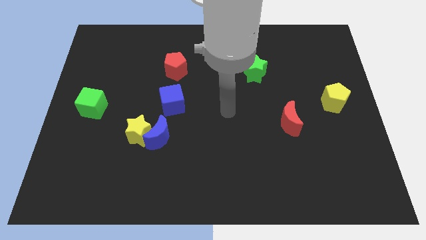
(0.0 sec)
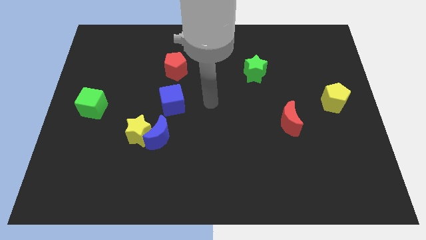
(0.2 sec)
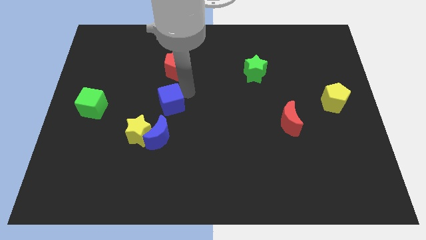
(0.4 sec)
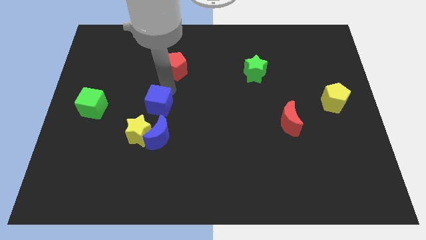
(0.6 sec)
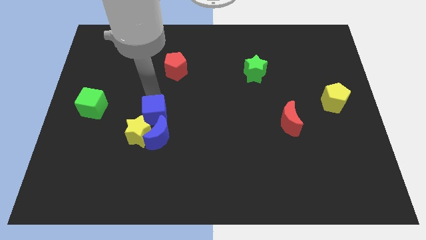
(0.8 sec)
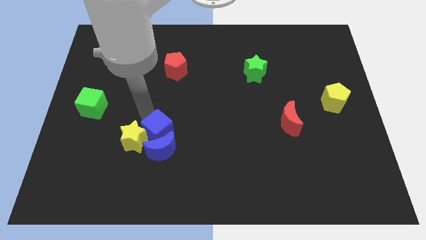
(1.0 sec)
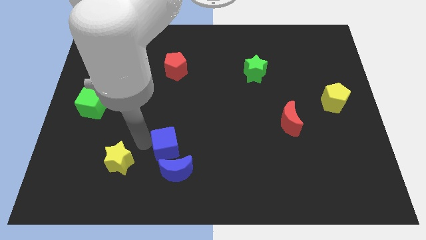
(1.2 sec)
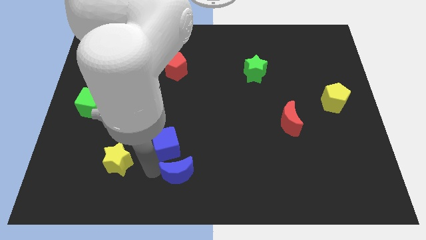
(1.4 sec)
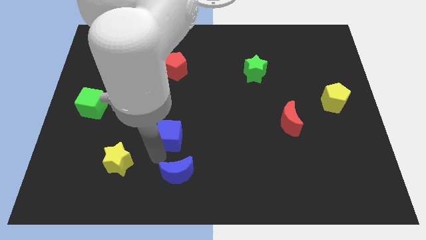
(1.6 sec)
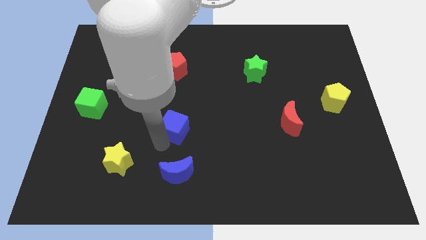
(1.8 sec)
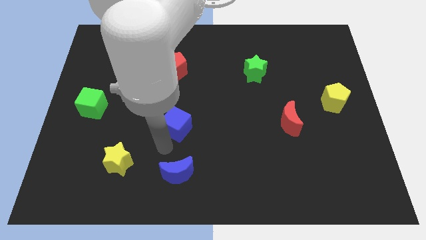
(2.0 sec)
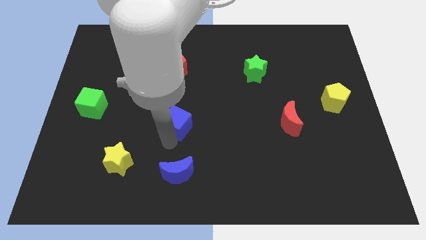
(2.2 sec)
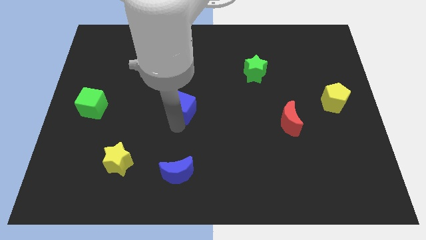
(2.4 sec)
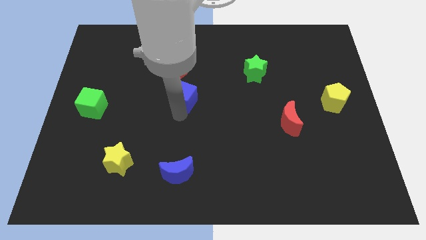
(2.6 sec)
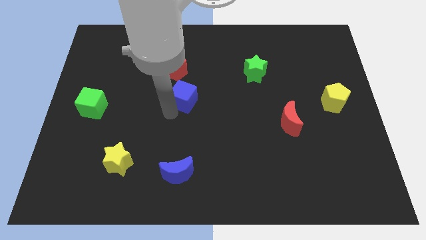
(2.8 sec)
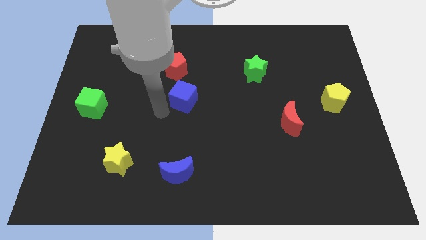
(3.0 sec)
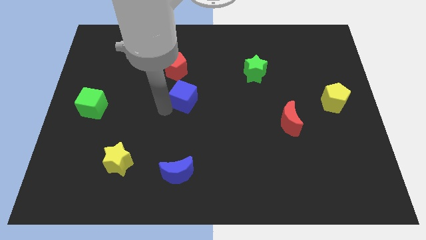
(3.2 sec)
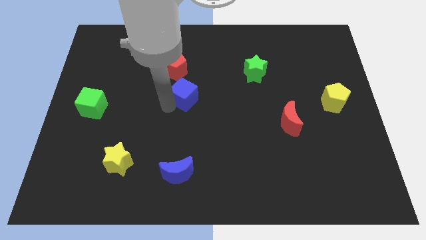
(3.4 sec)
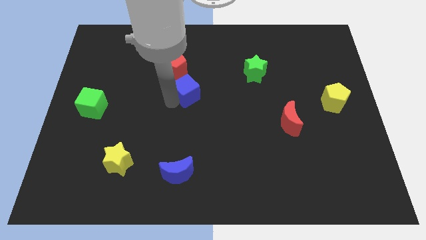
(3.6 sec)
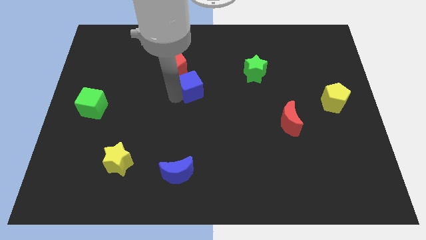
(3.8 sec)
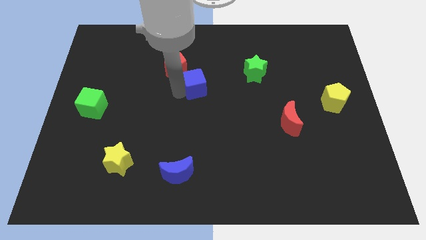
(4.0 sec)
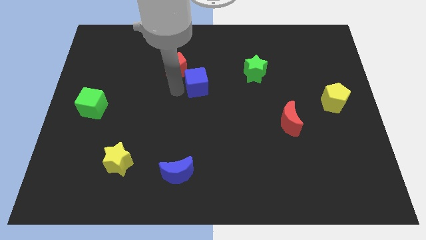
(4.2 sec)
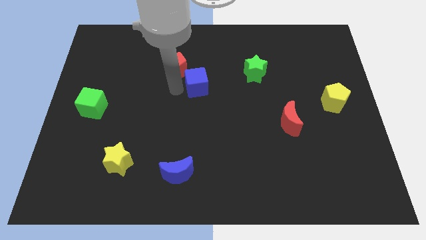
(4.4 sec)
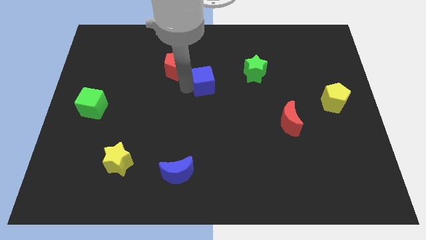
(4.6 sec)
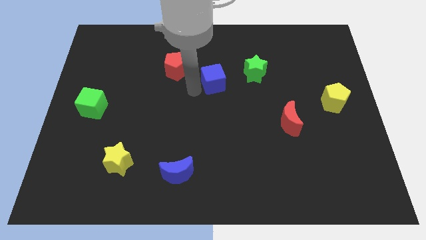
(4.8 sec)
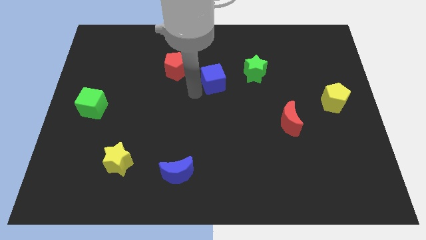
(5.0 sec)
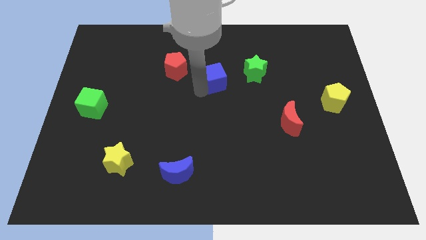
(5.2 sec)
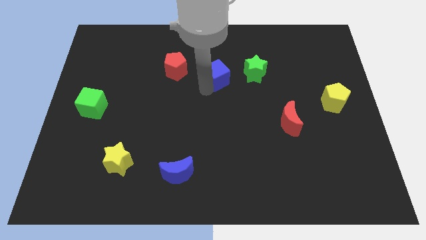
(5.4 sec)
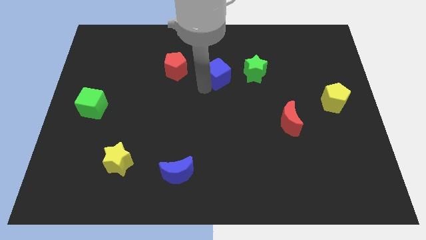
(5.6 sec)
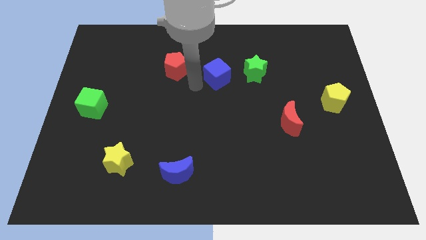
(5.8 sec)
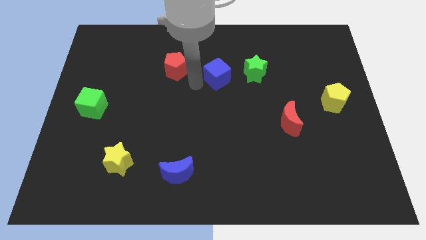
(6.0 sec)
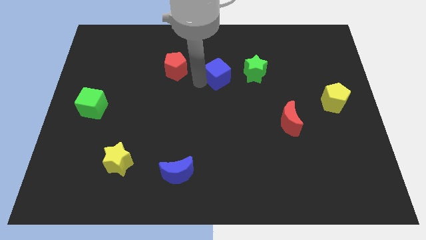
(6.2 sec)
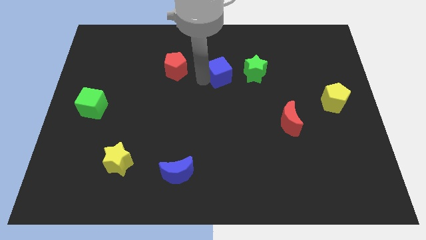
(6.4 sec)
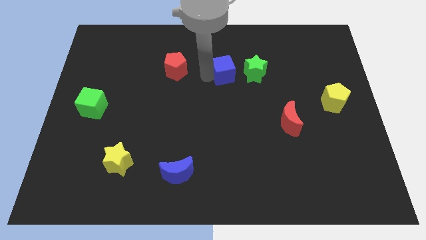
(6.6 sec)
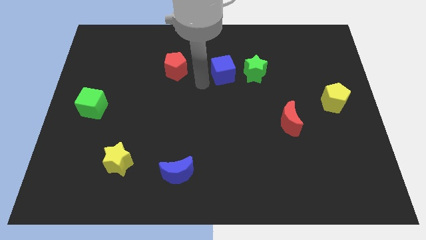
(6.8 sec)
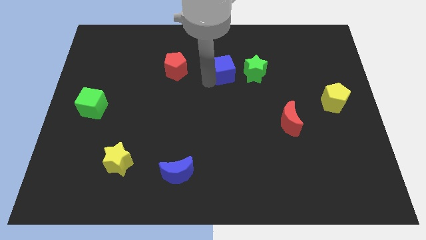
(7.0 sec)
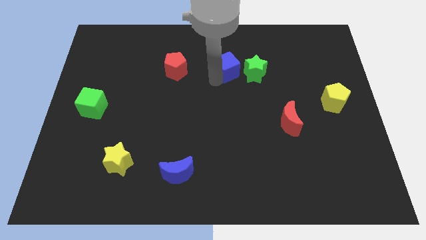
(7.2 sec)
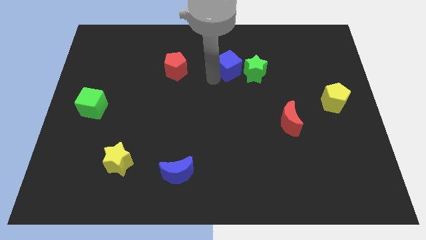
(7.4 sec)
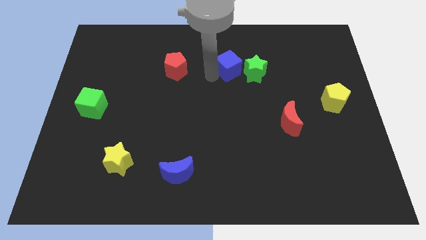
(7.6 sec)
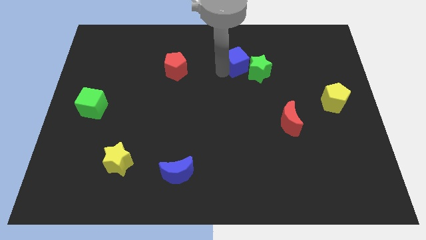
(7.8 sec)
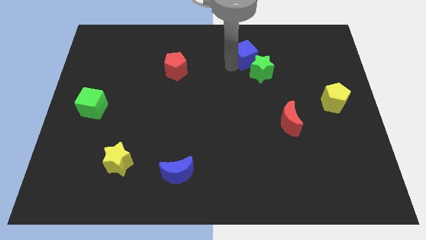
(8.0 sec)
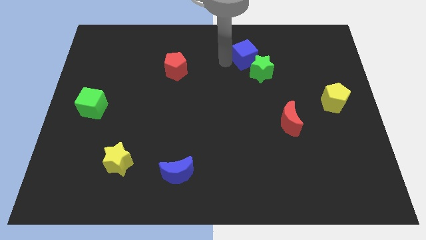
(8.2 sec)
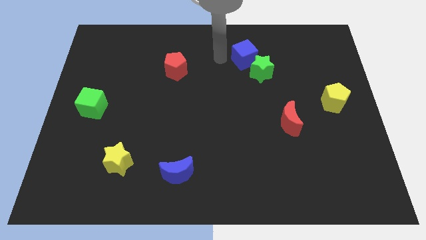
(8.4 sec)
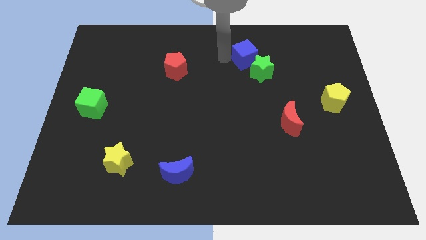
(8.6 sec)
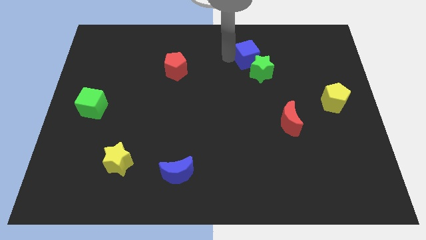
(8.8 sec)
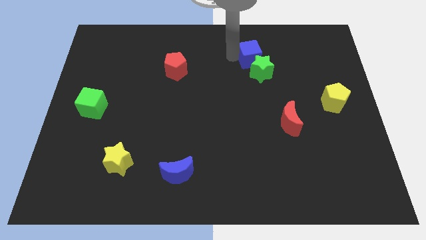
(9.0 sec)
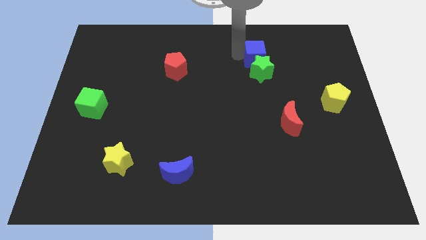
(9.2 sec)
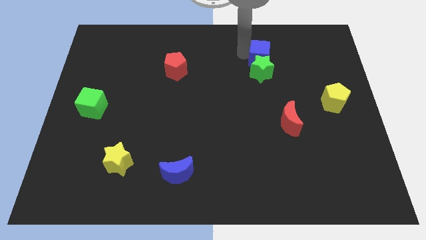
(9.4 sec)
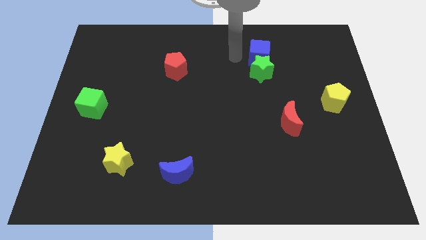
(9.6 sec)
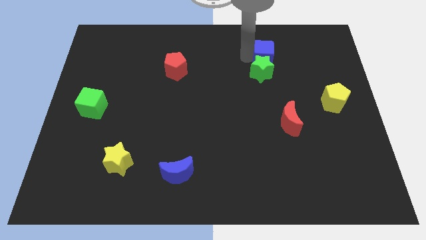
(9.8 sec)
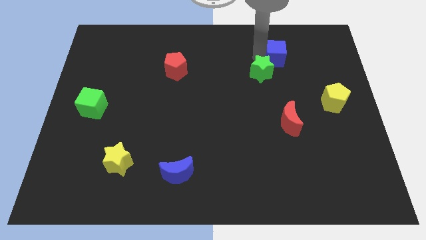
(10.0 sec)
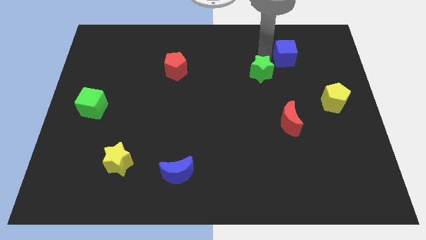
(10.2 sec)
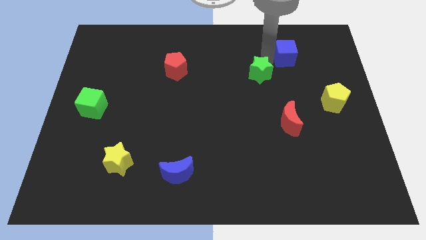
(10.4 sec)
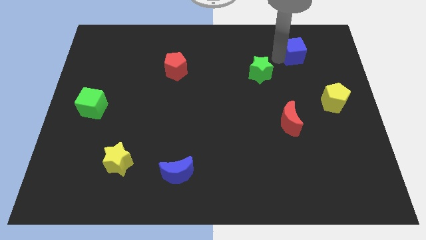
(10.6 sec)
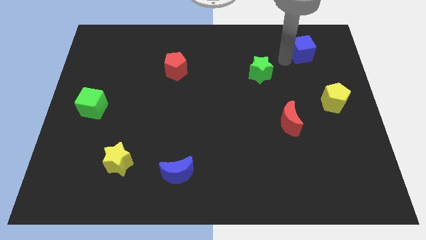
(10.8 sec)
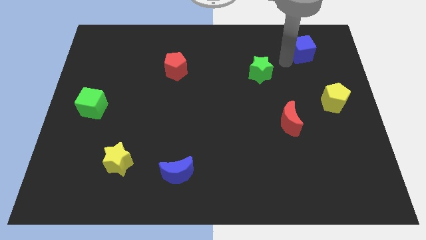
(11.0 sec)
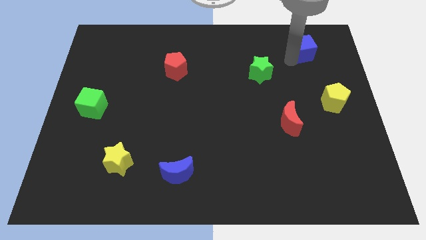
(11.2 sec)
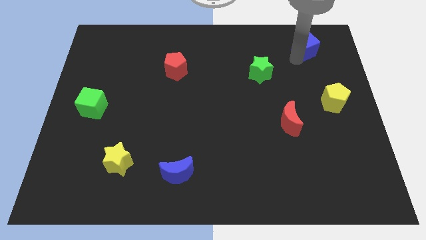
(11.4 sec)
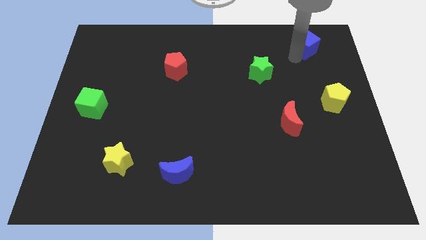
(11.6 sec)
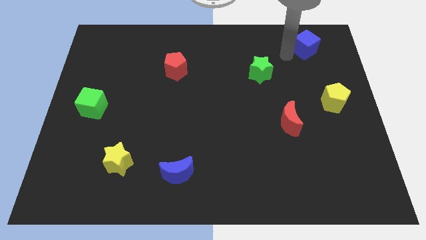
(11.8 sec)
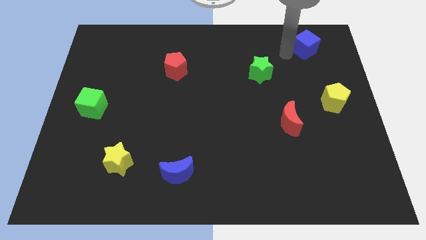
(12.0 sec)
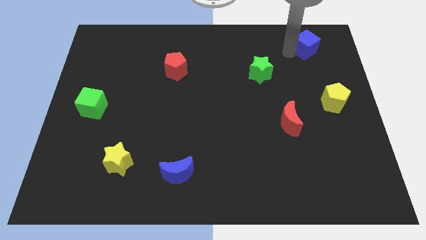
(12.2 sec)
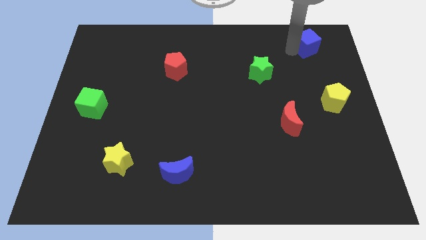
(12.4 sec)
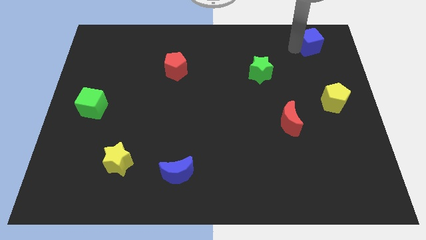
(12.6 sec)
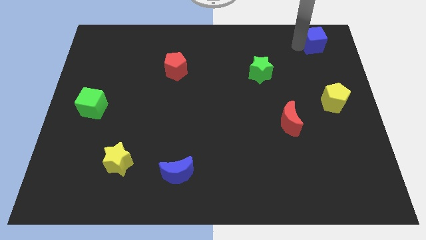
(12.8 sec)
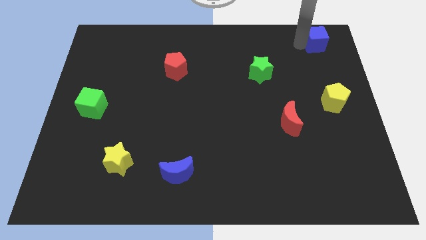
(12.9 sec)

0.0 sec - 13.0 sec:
push the blue cube to the upper right corner

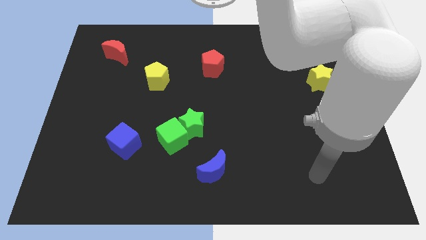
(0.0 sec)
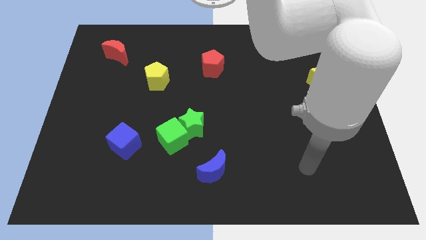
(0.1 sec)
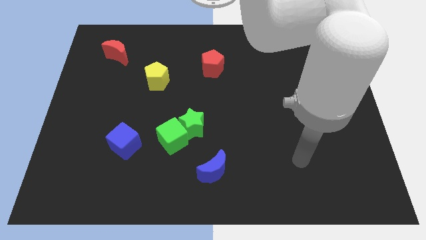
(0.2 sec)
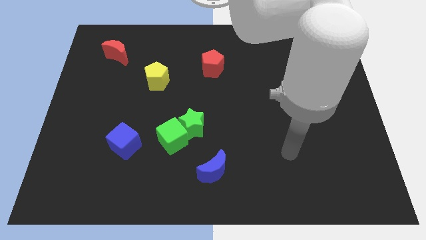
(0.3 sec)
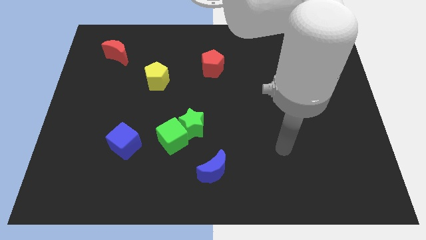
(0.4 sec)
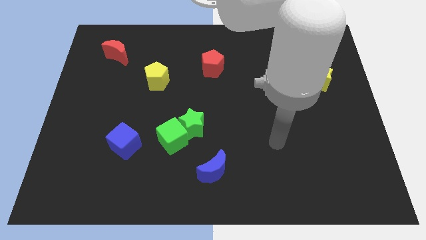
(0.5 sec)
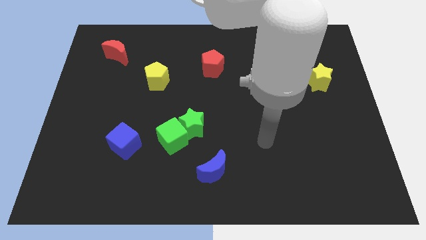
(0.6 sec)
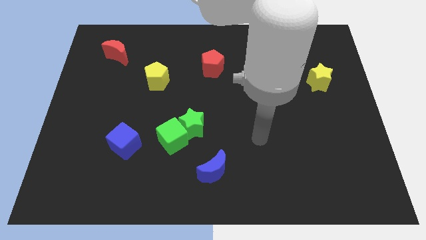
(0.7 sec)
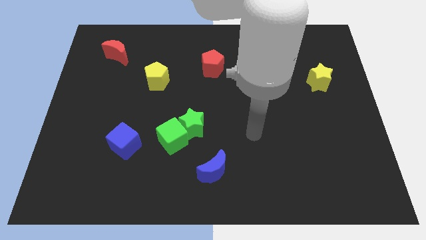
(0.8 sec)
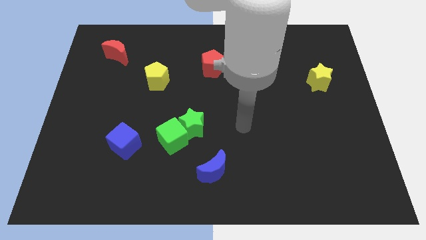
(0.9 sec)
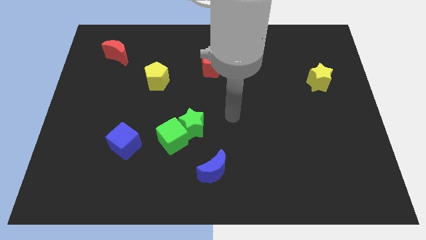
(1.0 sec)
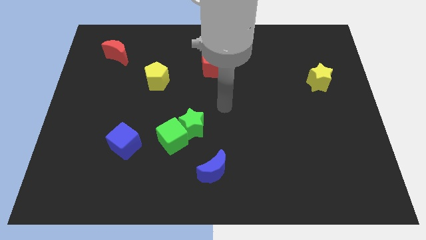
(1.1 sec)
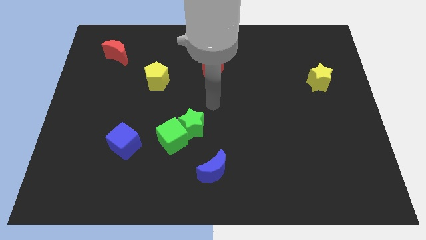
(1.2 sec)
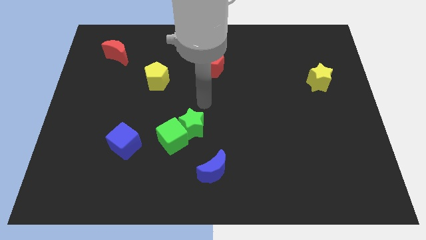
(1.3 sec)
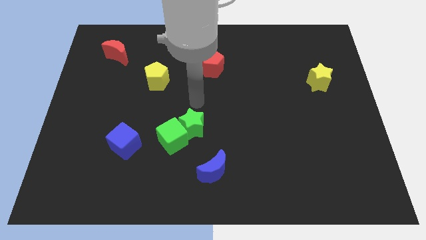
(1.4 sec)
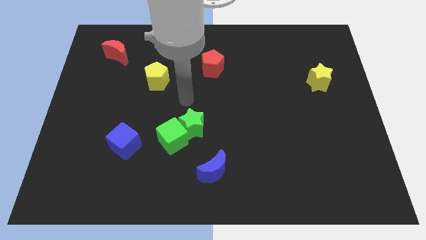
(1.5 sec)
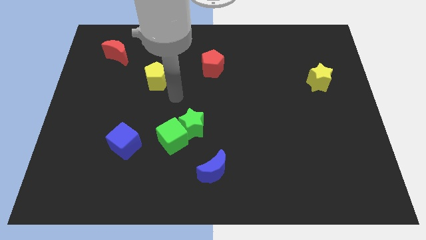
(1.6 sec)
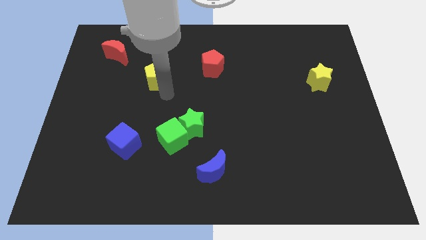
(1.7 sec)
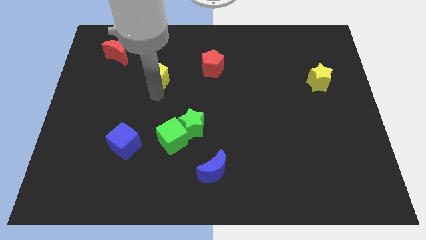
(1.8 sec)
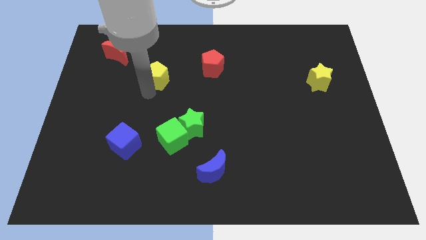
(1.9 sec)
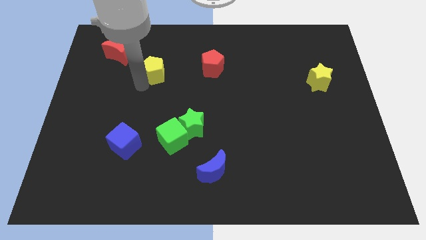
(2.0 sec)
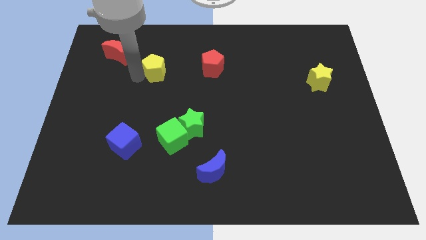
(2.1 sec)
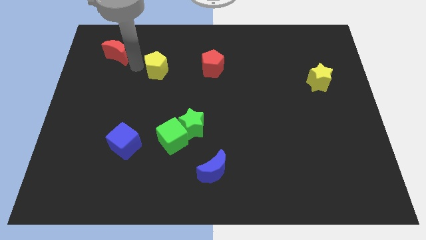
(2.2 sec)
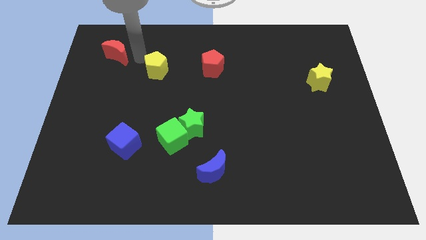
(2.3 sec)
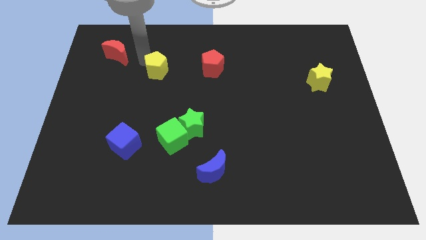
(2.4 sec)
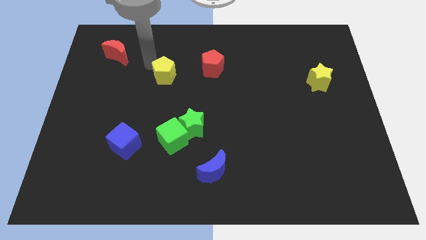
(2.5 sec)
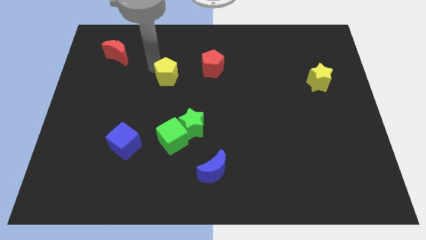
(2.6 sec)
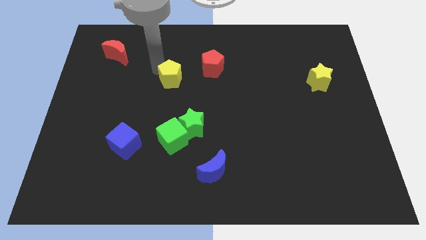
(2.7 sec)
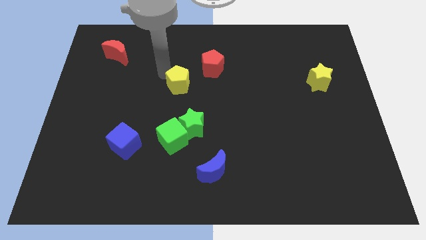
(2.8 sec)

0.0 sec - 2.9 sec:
put the yellow pentagon to the center
